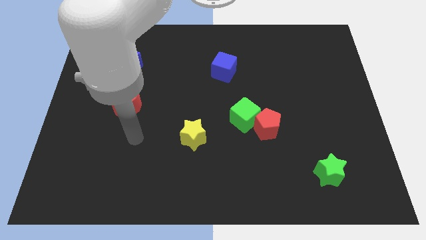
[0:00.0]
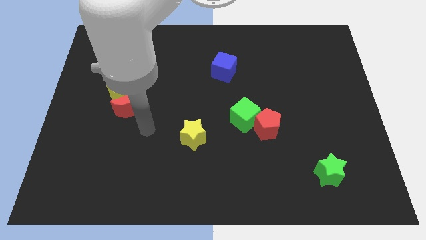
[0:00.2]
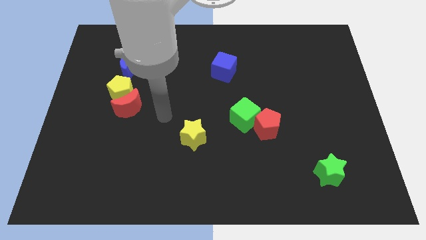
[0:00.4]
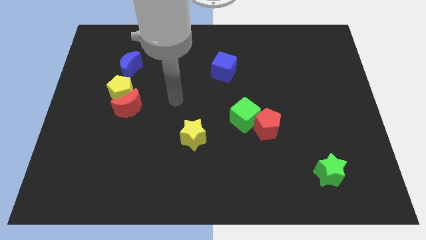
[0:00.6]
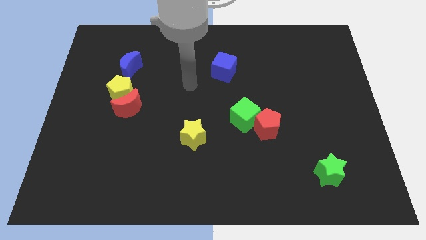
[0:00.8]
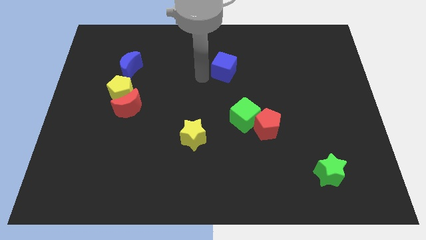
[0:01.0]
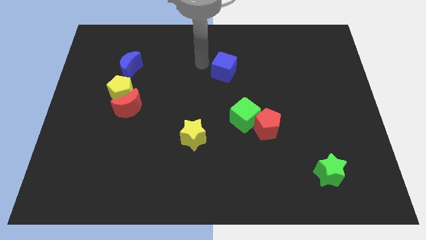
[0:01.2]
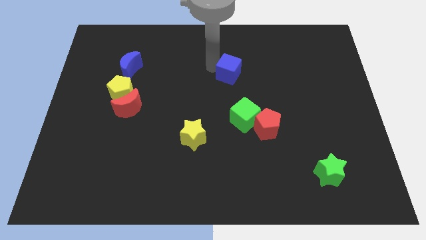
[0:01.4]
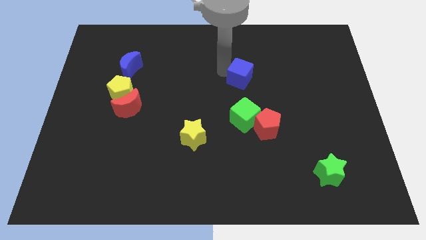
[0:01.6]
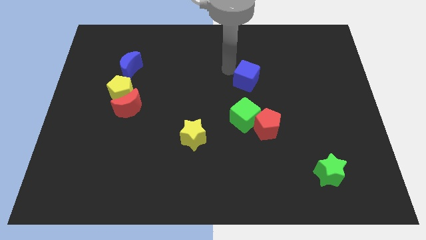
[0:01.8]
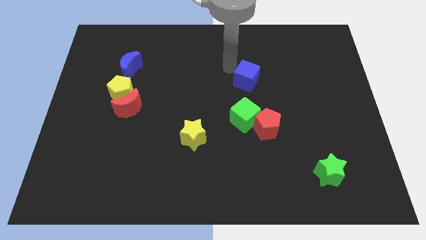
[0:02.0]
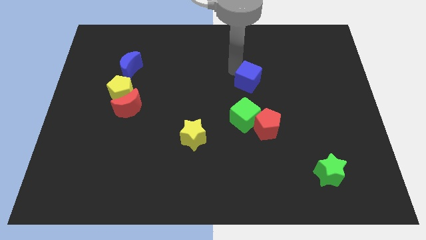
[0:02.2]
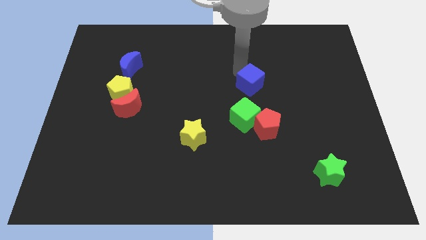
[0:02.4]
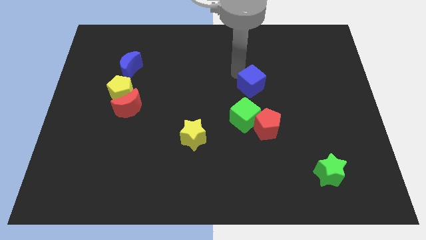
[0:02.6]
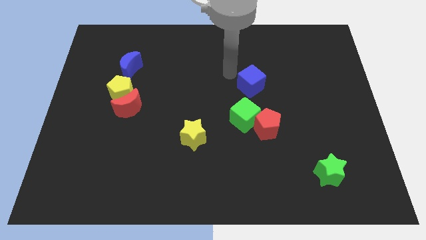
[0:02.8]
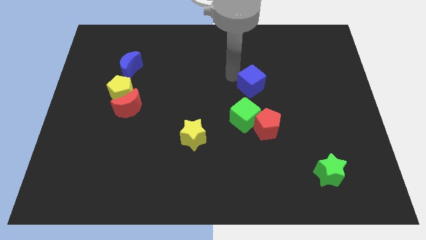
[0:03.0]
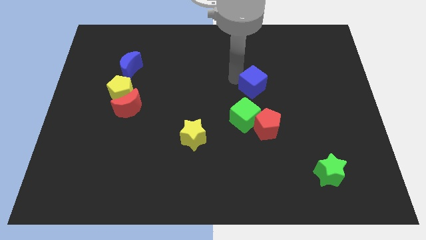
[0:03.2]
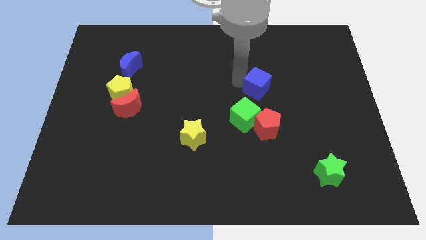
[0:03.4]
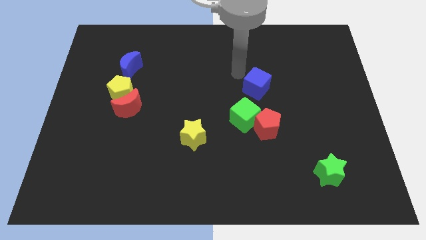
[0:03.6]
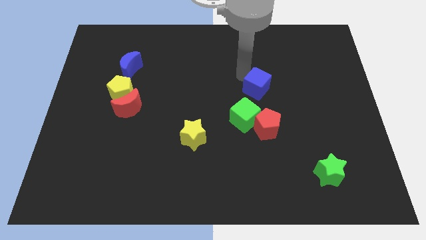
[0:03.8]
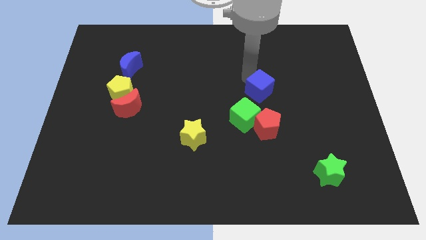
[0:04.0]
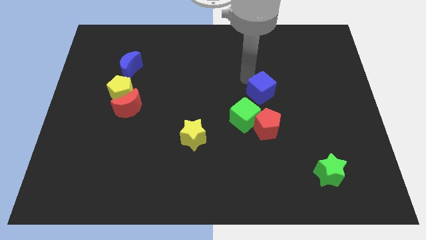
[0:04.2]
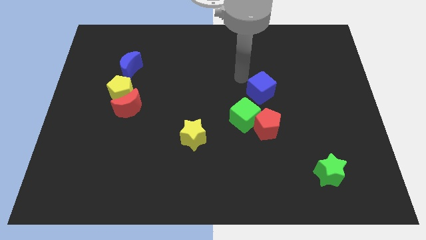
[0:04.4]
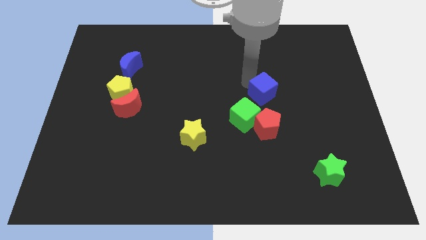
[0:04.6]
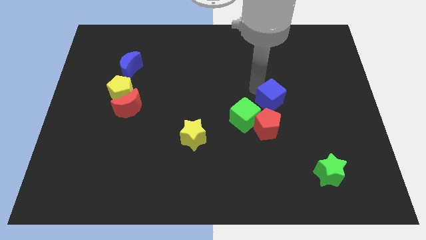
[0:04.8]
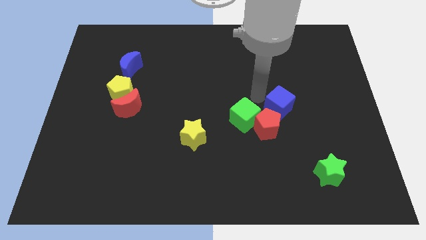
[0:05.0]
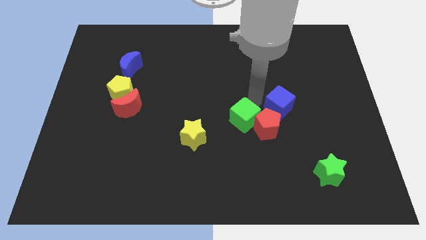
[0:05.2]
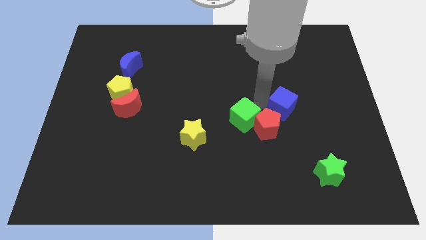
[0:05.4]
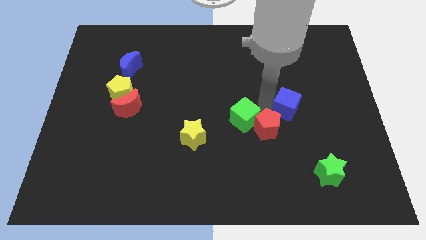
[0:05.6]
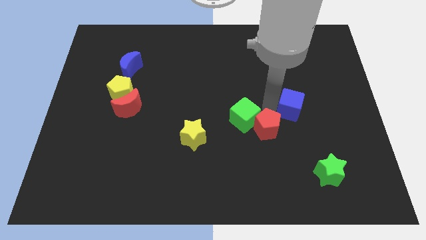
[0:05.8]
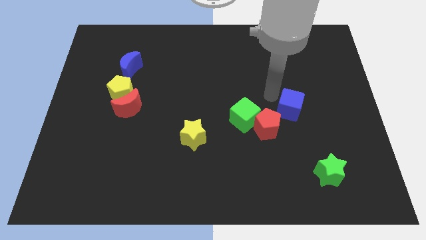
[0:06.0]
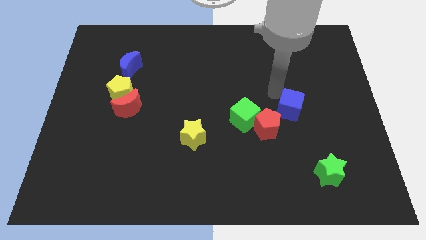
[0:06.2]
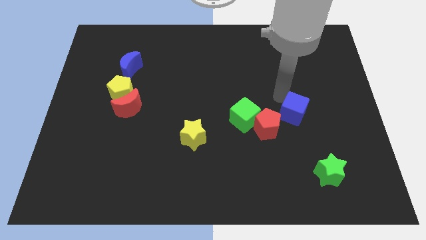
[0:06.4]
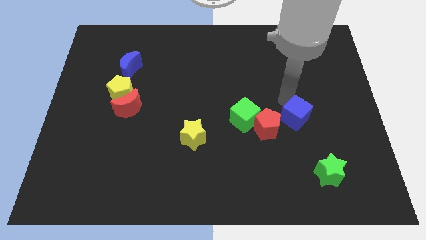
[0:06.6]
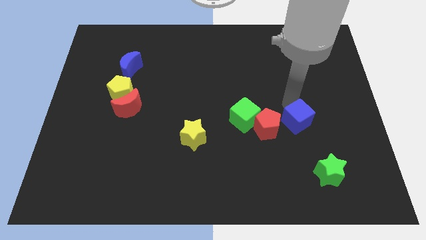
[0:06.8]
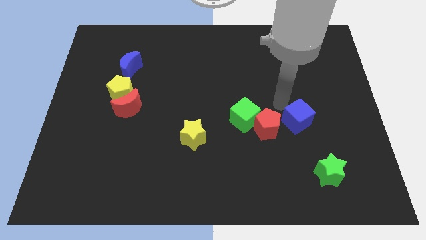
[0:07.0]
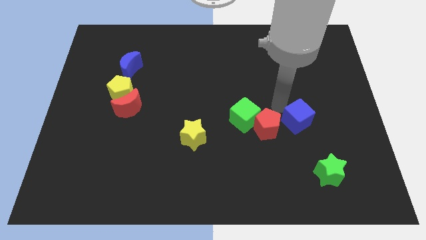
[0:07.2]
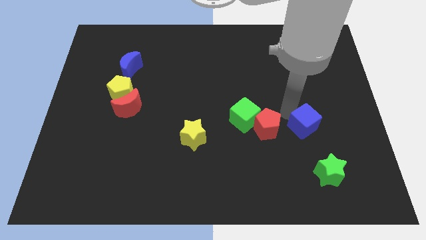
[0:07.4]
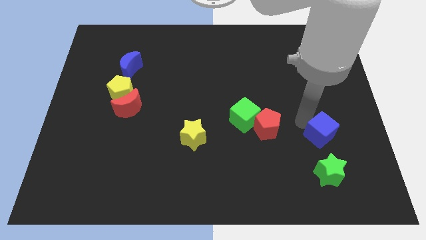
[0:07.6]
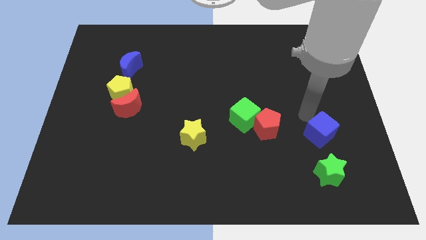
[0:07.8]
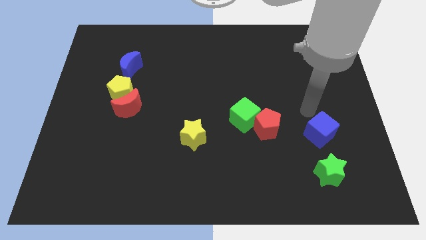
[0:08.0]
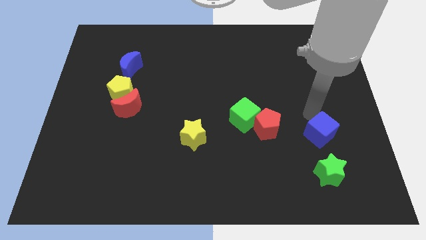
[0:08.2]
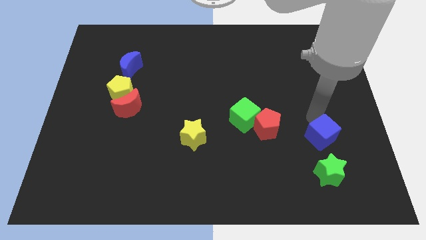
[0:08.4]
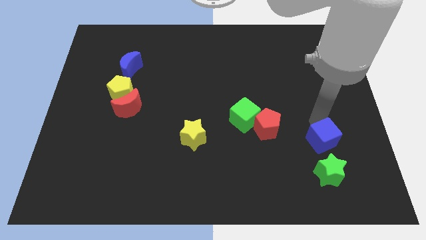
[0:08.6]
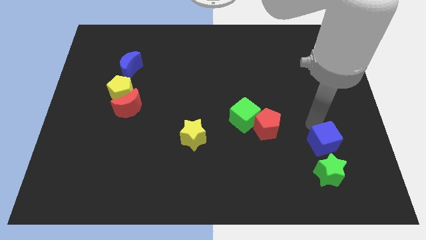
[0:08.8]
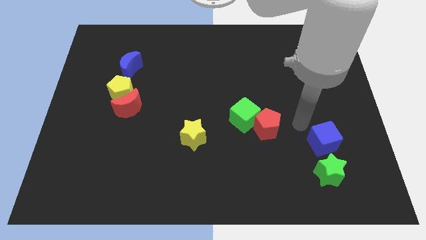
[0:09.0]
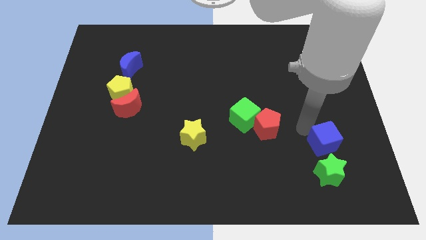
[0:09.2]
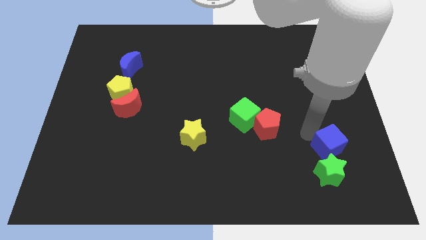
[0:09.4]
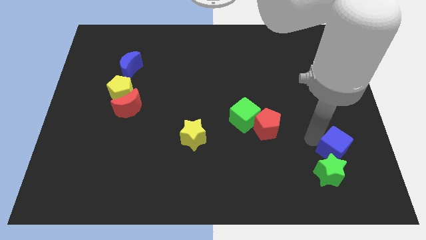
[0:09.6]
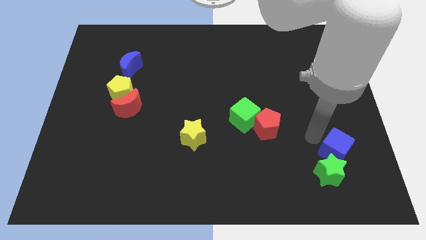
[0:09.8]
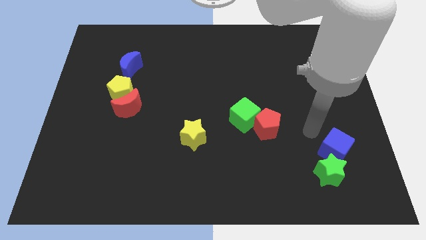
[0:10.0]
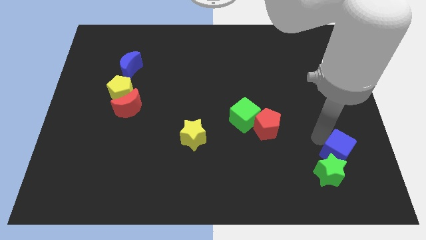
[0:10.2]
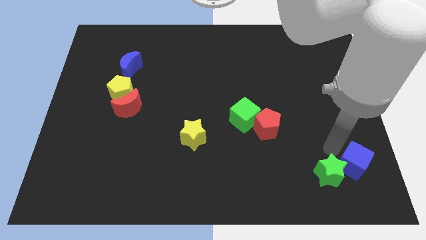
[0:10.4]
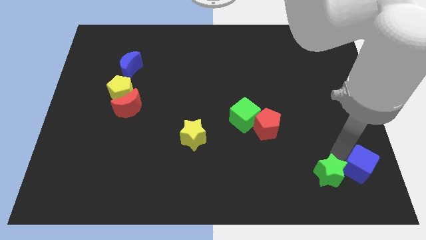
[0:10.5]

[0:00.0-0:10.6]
move the blue cube to the bottom right of the board
